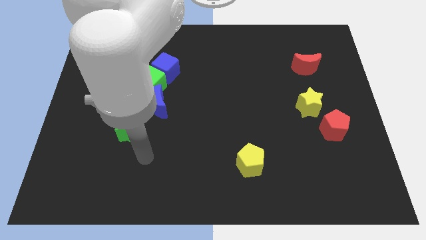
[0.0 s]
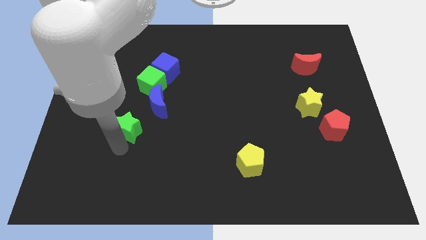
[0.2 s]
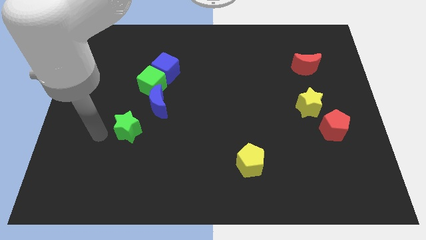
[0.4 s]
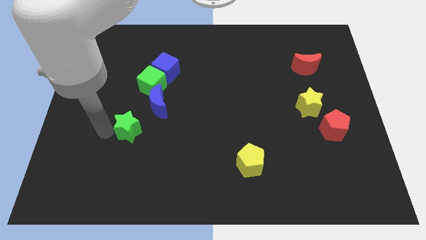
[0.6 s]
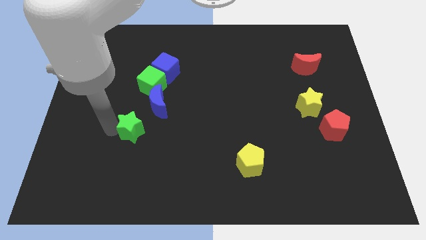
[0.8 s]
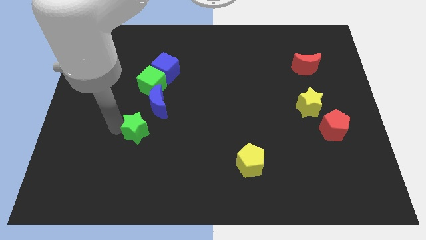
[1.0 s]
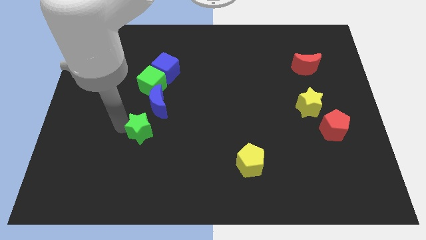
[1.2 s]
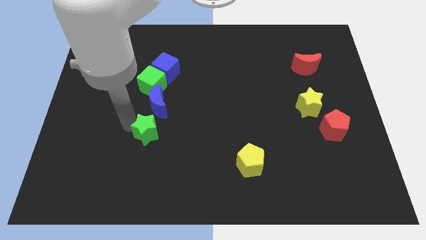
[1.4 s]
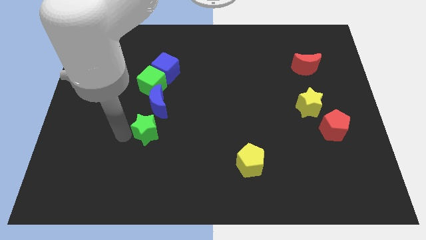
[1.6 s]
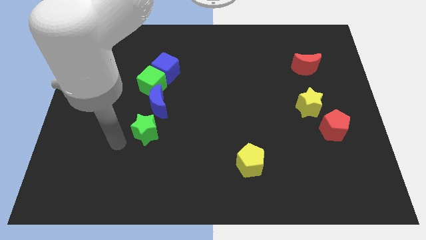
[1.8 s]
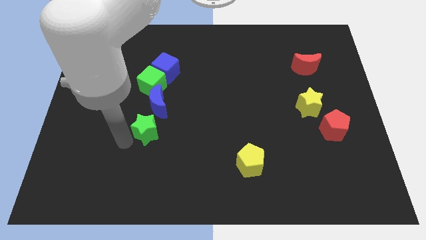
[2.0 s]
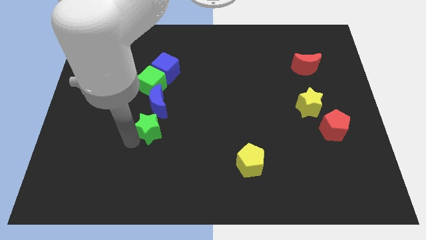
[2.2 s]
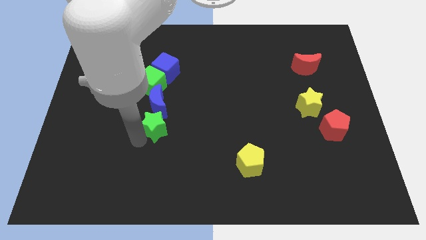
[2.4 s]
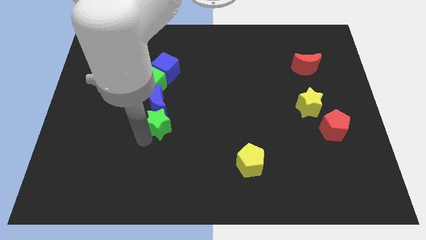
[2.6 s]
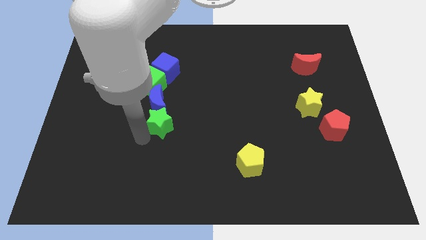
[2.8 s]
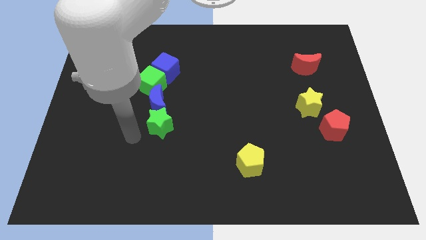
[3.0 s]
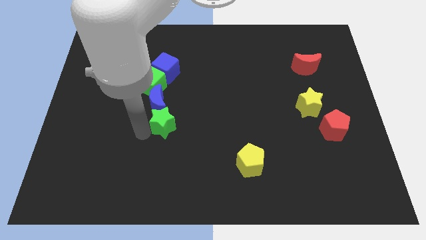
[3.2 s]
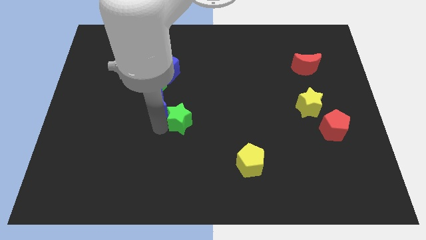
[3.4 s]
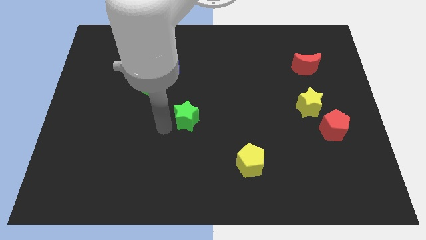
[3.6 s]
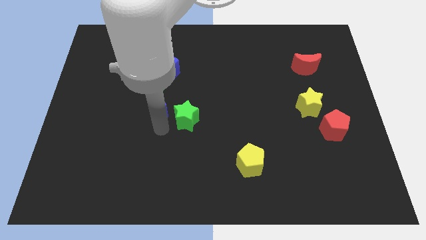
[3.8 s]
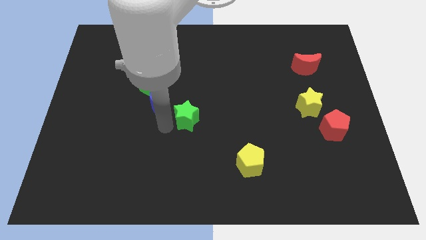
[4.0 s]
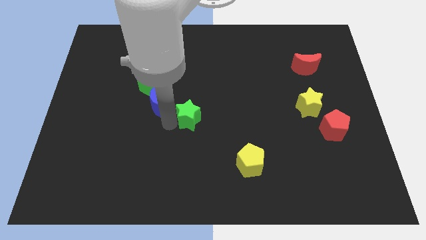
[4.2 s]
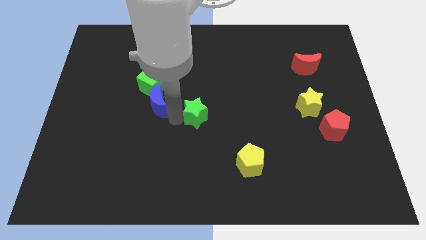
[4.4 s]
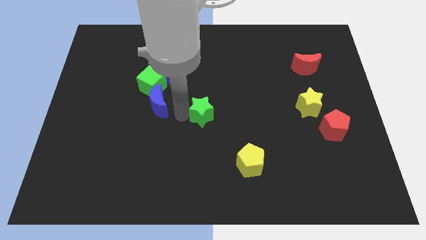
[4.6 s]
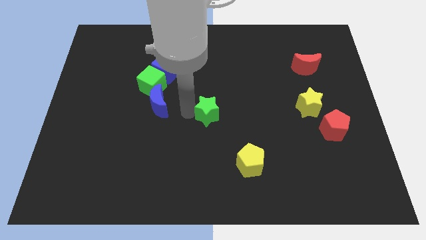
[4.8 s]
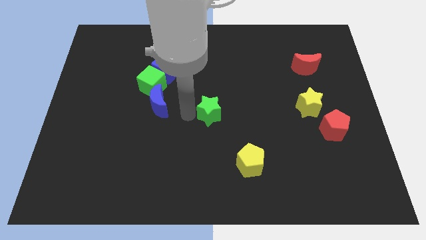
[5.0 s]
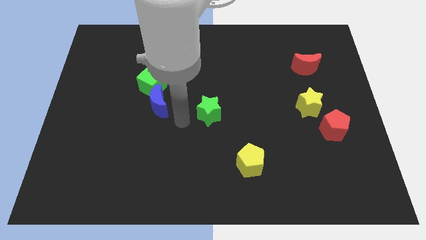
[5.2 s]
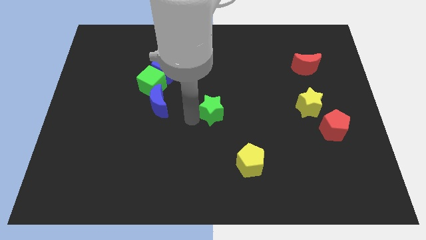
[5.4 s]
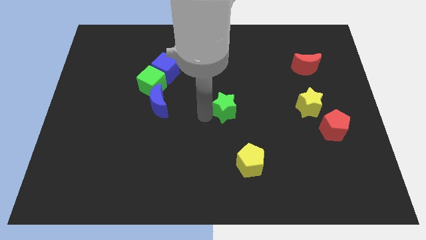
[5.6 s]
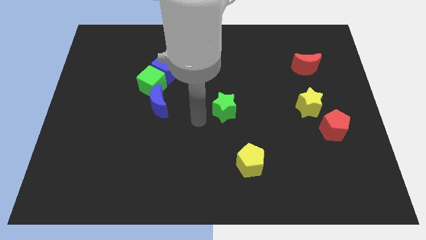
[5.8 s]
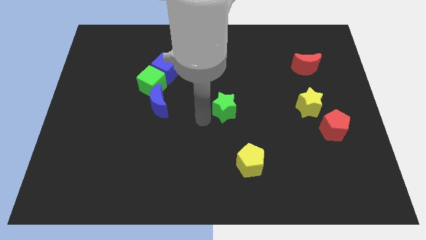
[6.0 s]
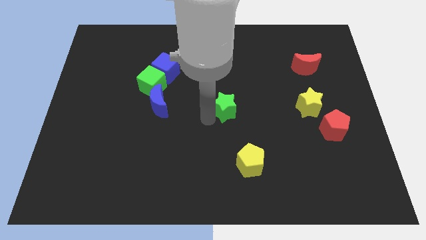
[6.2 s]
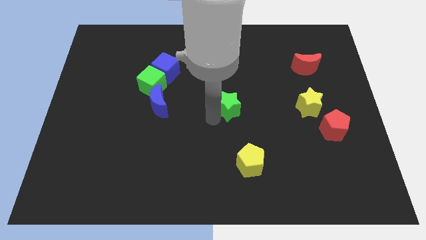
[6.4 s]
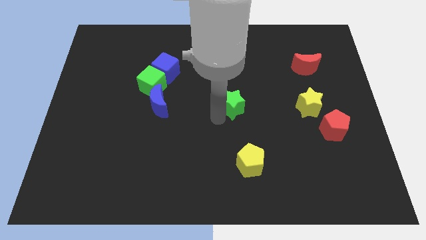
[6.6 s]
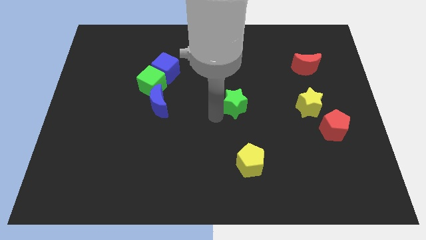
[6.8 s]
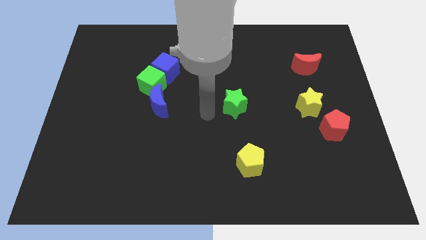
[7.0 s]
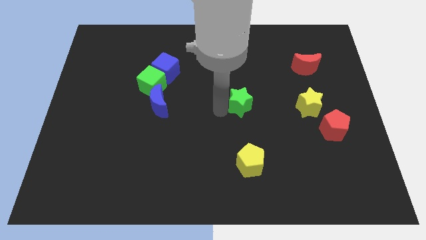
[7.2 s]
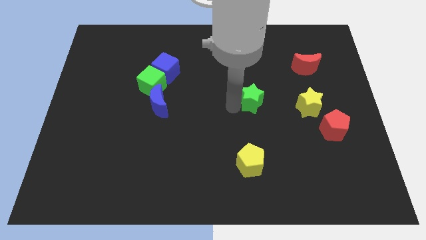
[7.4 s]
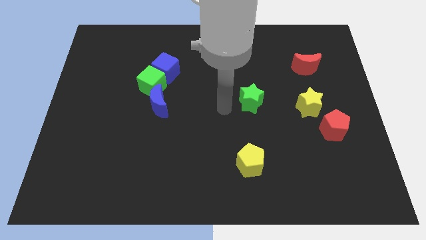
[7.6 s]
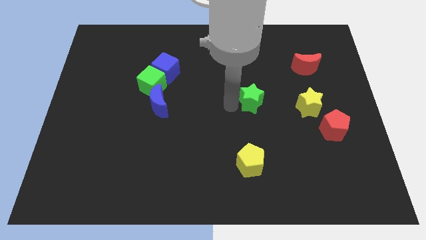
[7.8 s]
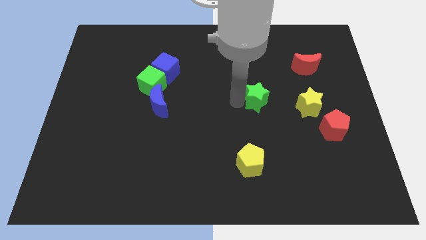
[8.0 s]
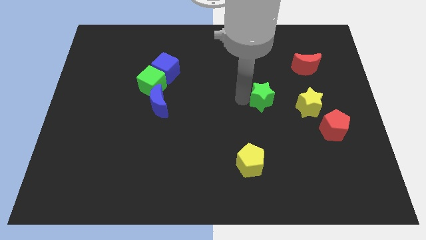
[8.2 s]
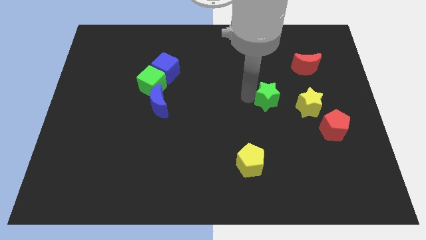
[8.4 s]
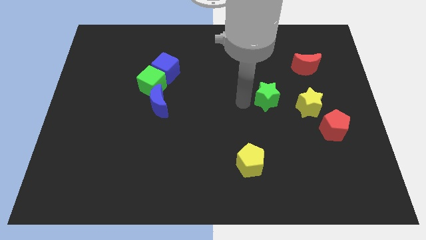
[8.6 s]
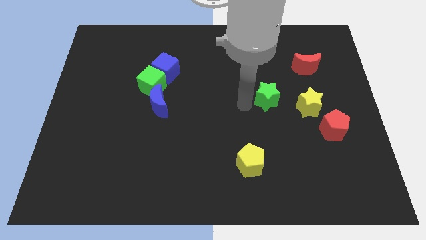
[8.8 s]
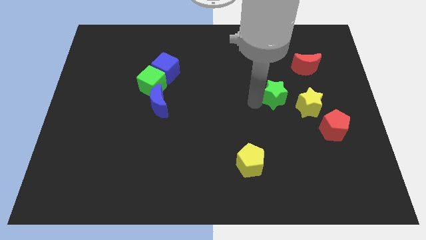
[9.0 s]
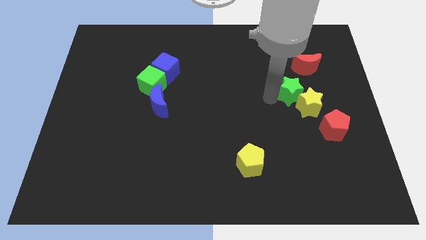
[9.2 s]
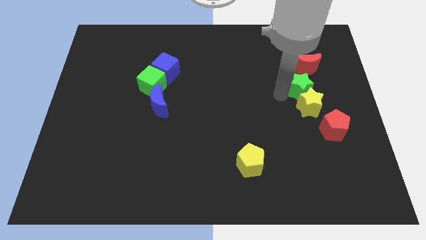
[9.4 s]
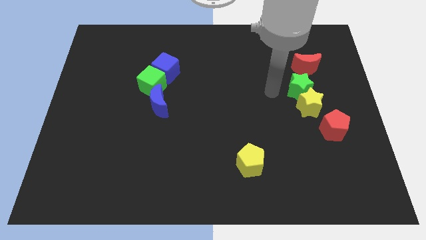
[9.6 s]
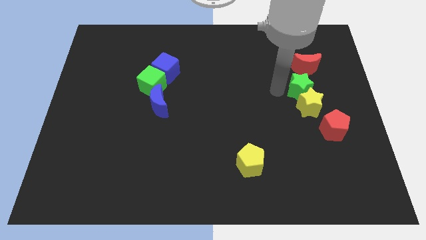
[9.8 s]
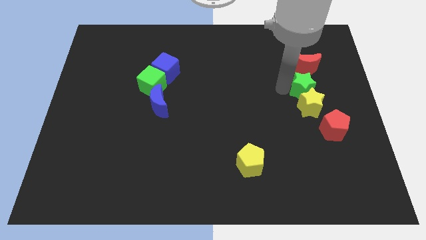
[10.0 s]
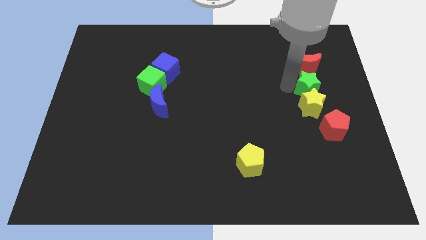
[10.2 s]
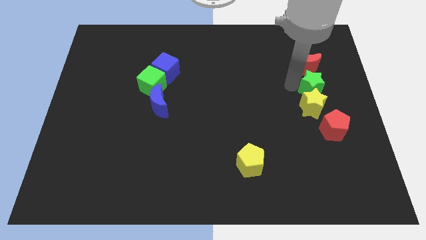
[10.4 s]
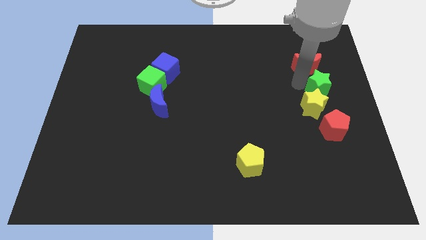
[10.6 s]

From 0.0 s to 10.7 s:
slide the green star to the right side of the board

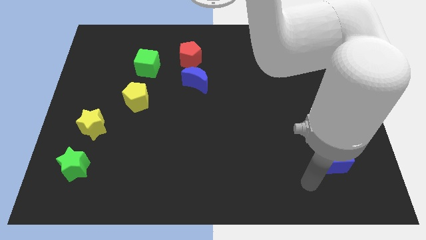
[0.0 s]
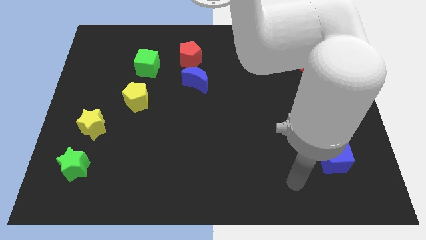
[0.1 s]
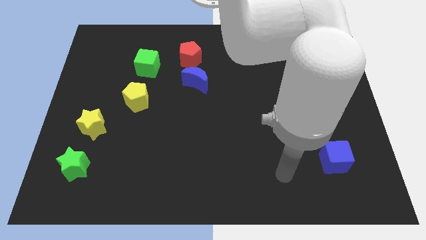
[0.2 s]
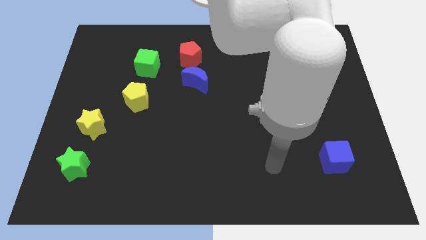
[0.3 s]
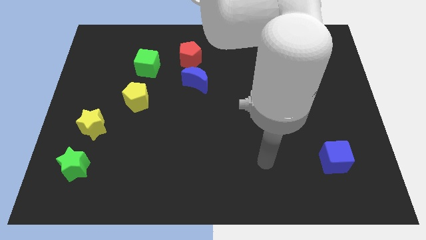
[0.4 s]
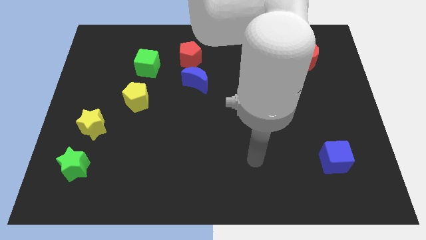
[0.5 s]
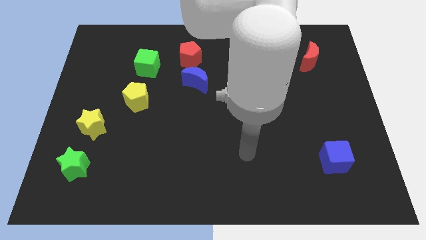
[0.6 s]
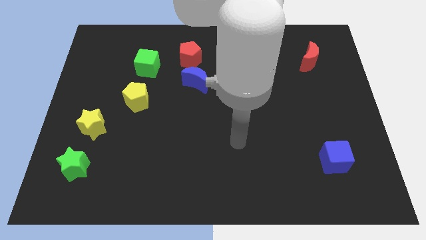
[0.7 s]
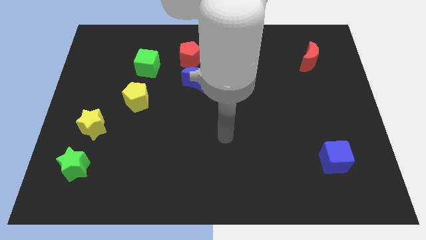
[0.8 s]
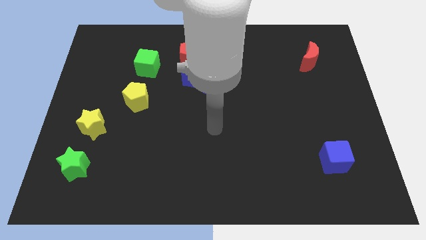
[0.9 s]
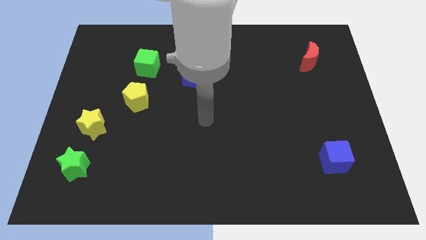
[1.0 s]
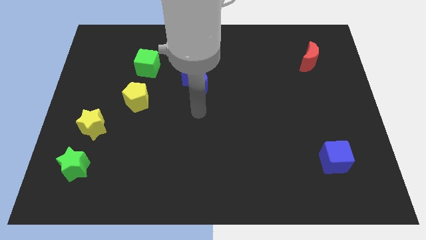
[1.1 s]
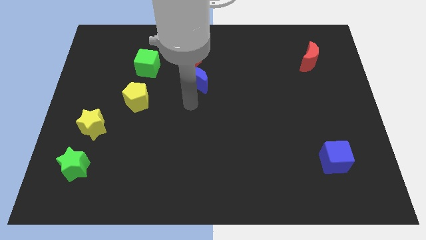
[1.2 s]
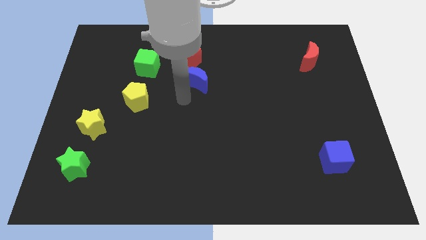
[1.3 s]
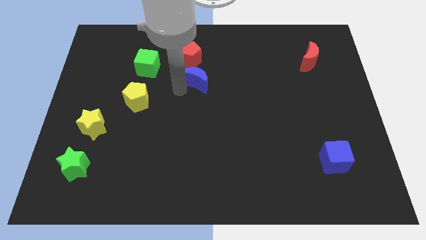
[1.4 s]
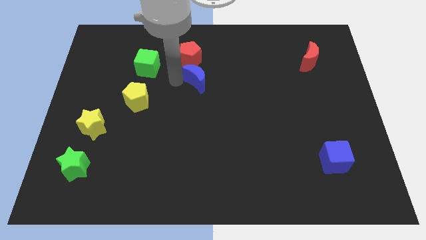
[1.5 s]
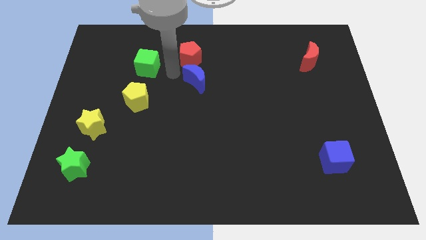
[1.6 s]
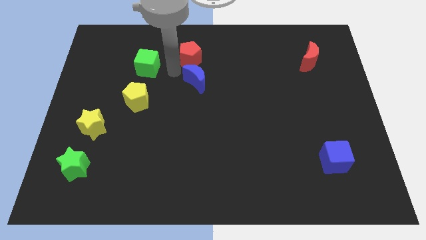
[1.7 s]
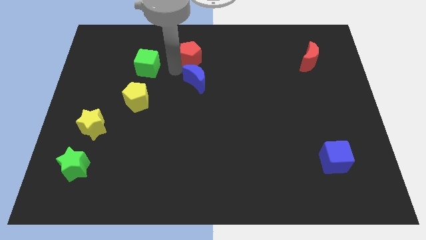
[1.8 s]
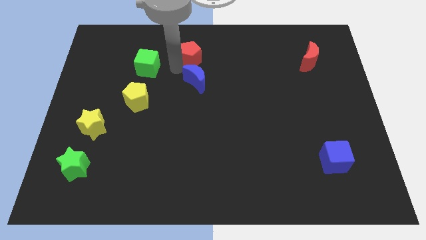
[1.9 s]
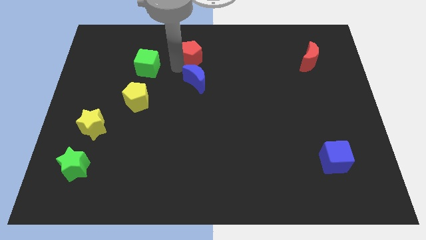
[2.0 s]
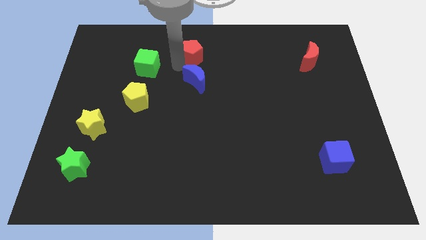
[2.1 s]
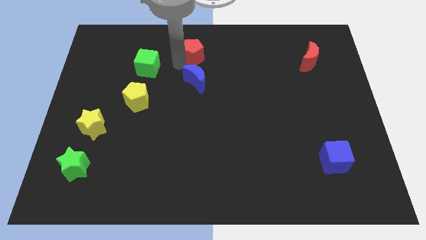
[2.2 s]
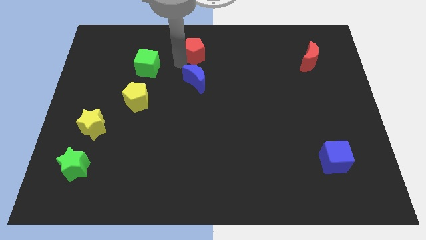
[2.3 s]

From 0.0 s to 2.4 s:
put the red pentagon to the top
